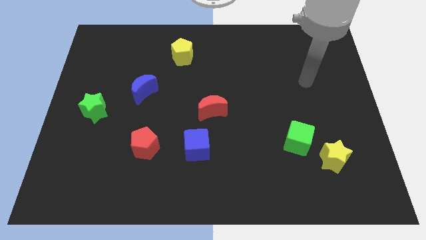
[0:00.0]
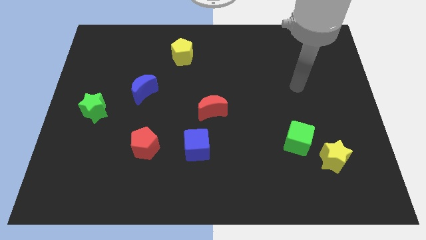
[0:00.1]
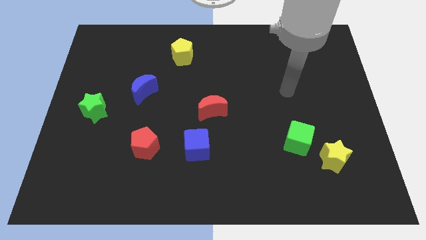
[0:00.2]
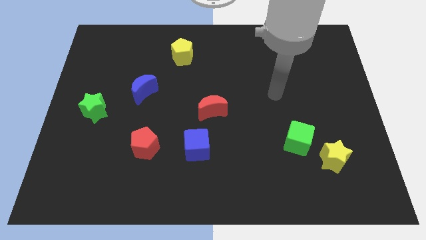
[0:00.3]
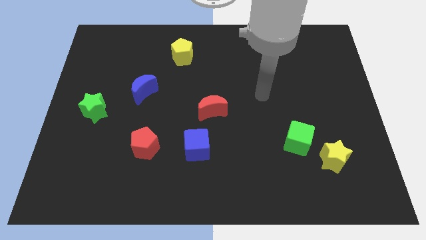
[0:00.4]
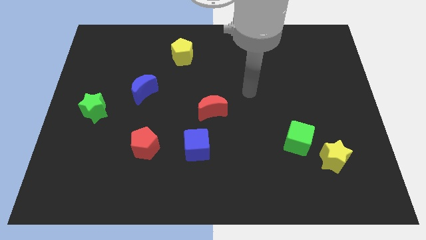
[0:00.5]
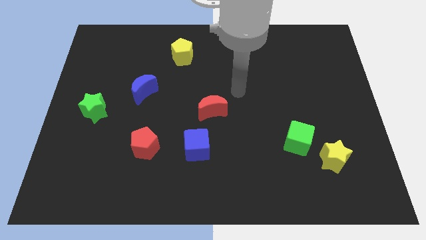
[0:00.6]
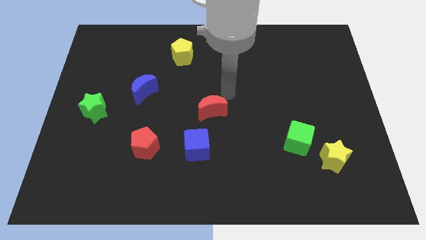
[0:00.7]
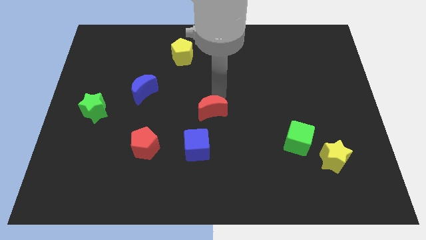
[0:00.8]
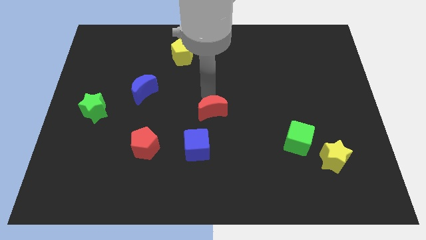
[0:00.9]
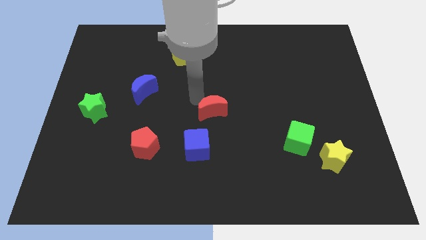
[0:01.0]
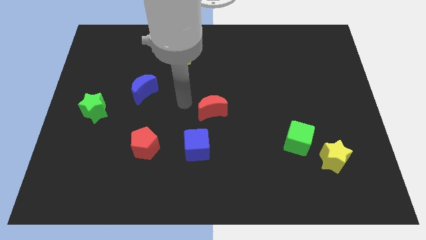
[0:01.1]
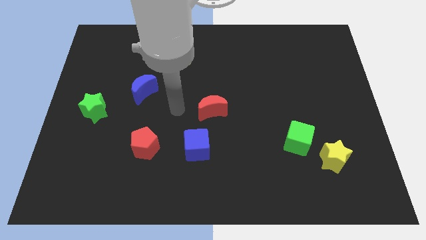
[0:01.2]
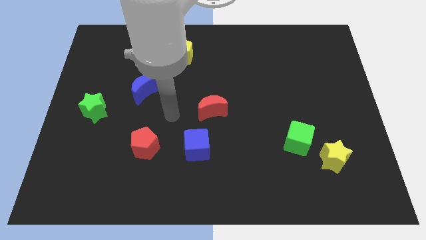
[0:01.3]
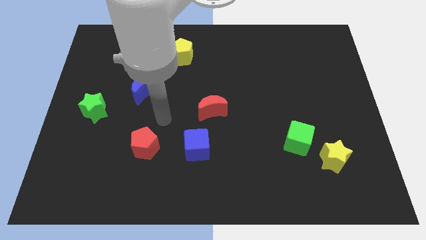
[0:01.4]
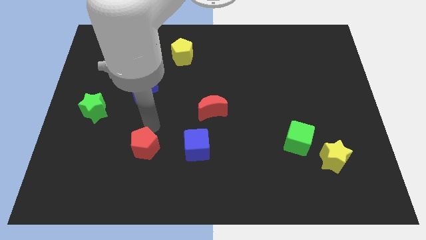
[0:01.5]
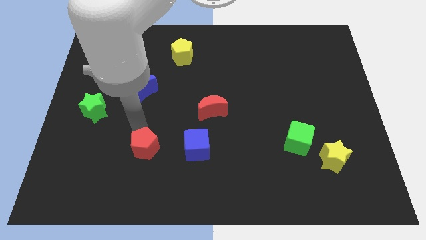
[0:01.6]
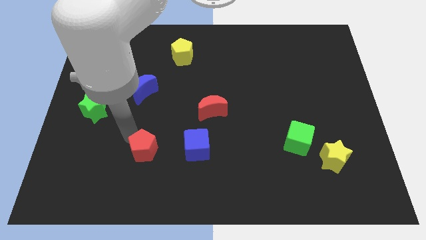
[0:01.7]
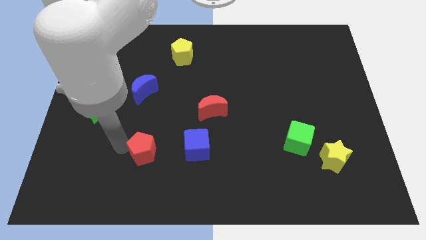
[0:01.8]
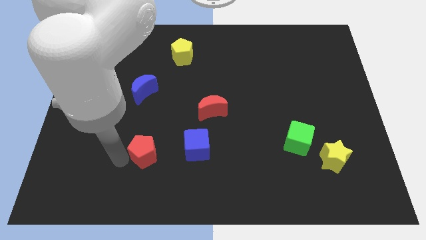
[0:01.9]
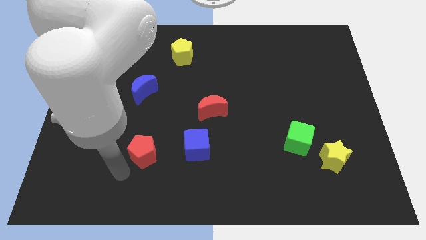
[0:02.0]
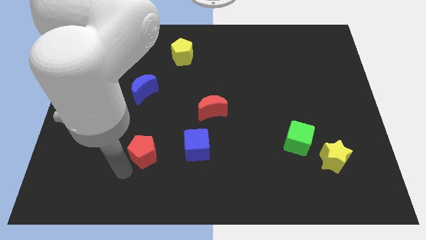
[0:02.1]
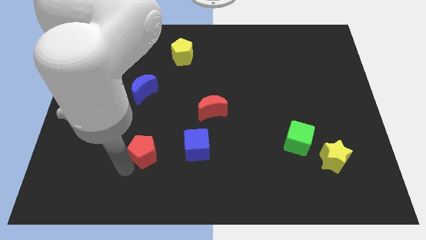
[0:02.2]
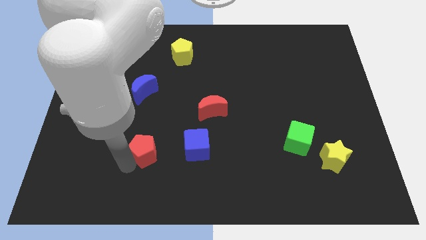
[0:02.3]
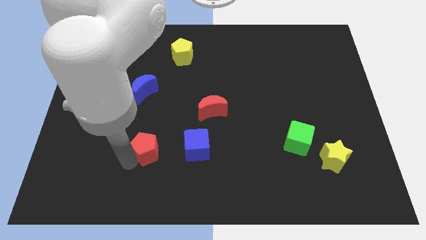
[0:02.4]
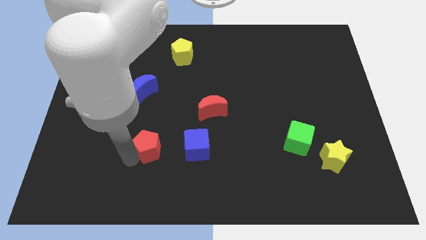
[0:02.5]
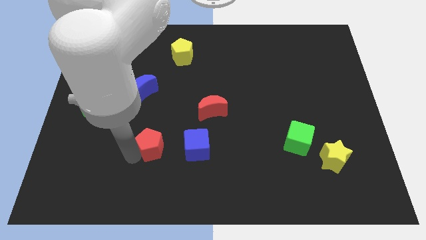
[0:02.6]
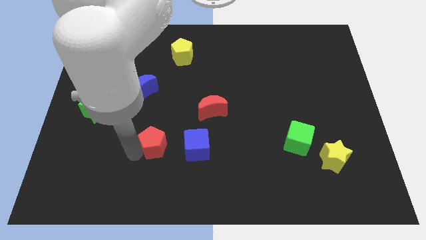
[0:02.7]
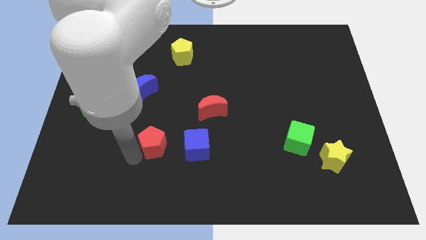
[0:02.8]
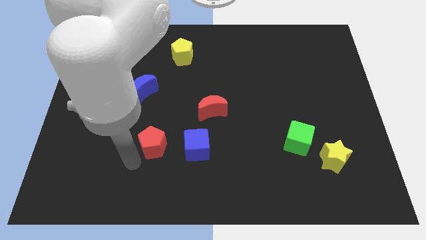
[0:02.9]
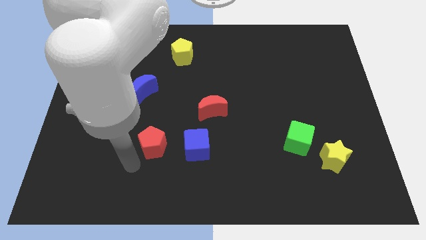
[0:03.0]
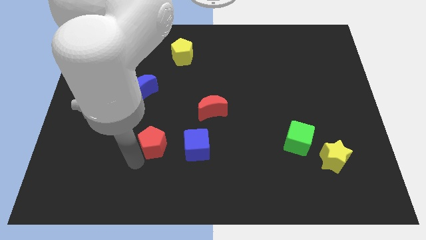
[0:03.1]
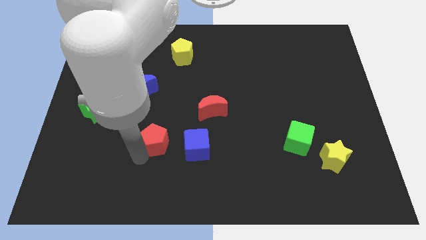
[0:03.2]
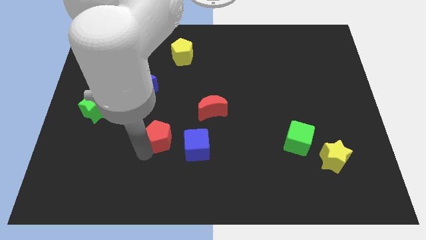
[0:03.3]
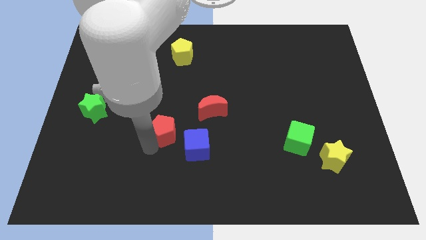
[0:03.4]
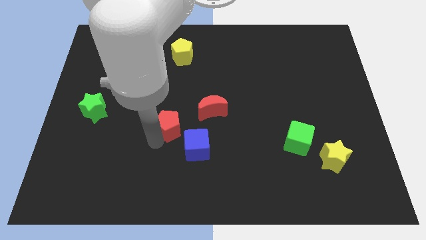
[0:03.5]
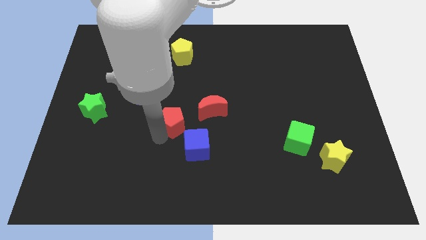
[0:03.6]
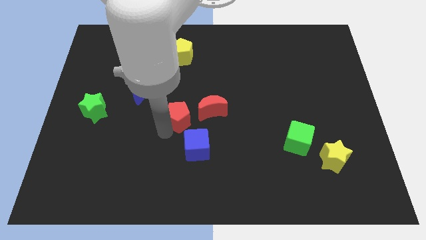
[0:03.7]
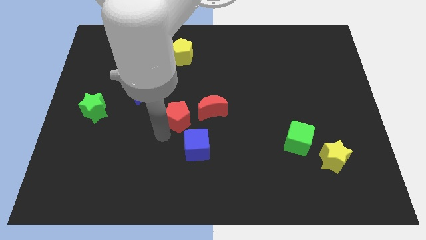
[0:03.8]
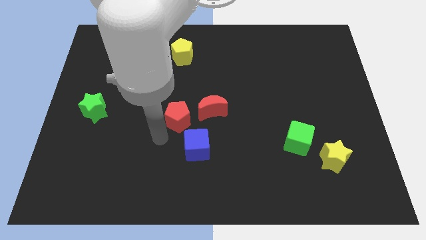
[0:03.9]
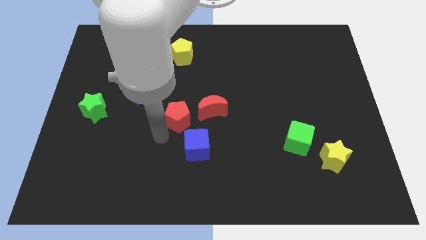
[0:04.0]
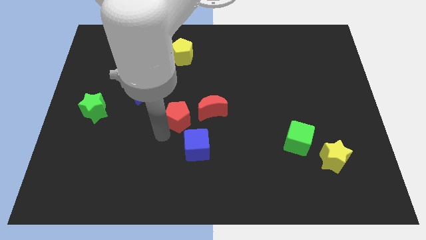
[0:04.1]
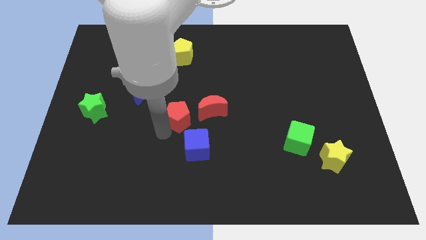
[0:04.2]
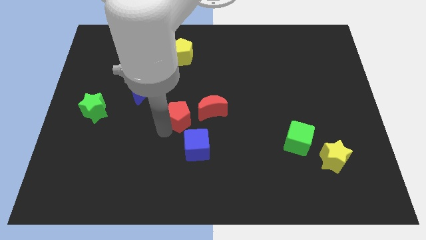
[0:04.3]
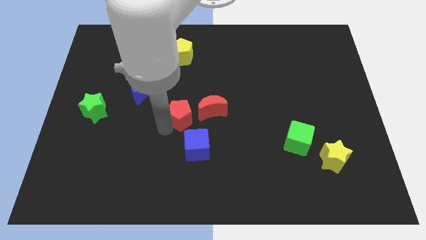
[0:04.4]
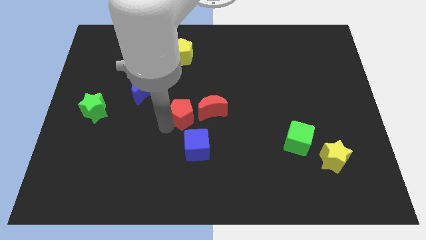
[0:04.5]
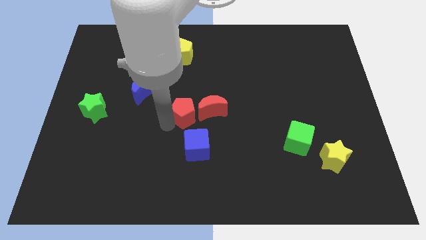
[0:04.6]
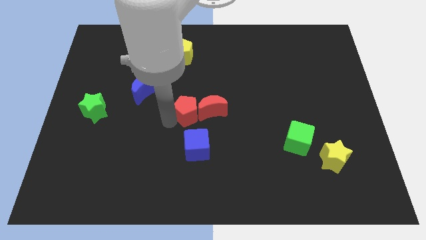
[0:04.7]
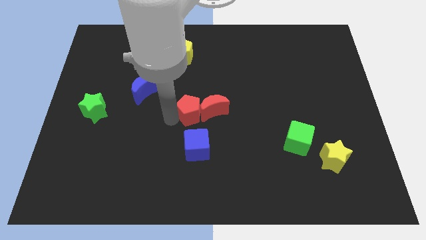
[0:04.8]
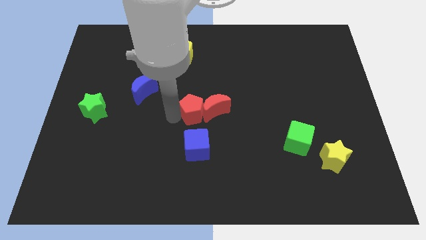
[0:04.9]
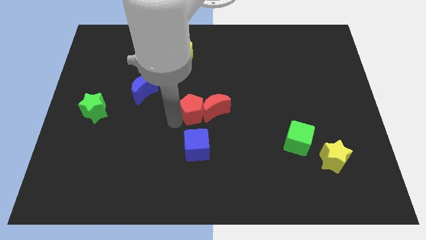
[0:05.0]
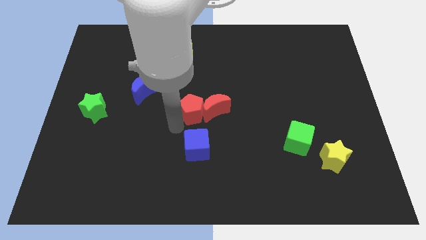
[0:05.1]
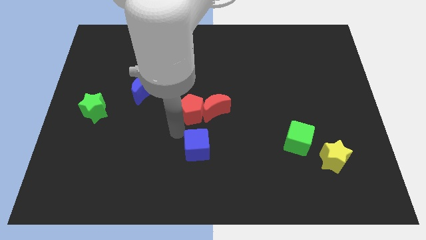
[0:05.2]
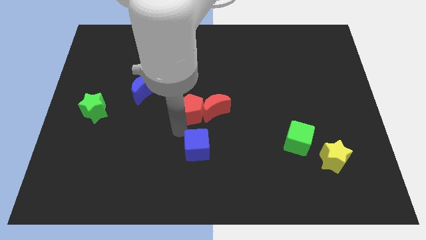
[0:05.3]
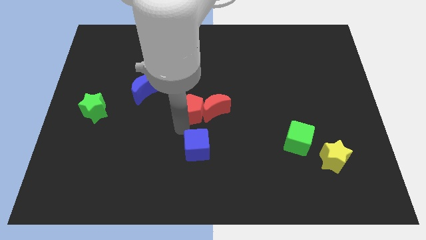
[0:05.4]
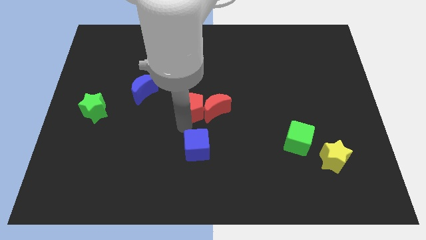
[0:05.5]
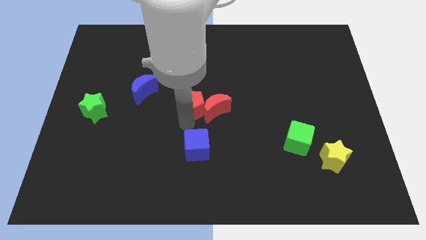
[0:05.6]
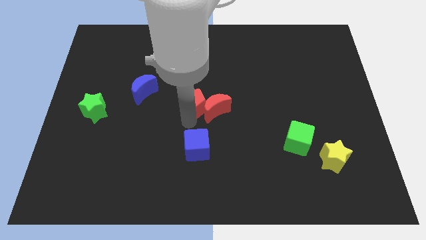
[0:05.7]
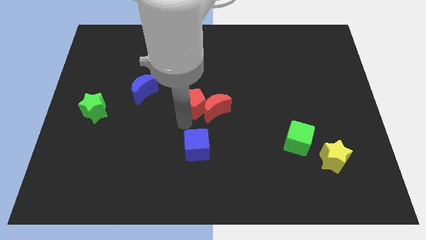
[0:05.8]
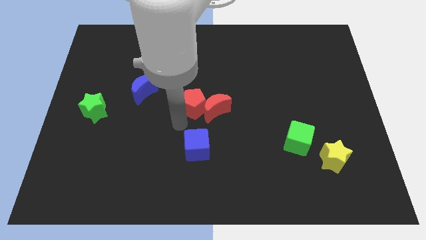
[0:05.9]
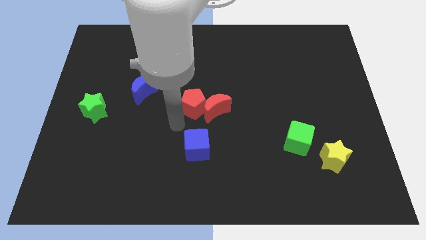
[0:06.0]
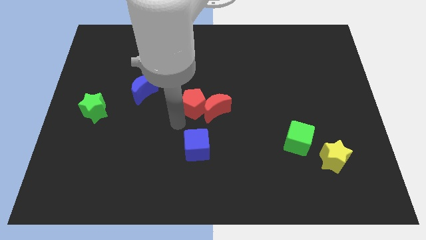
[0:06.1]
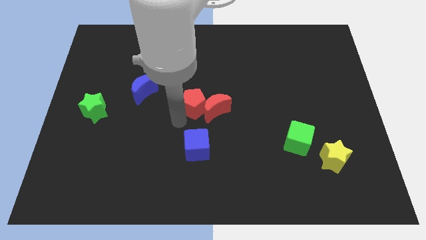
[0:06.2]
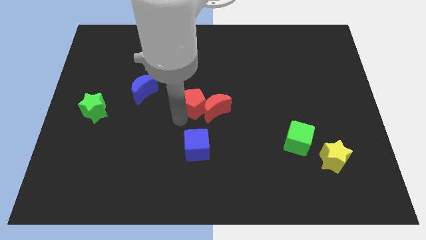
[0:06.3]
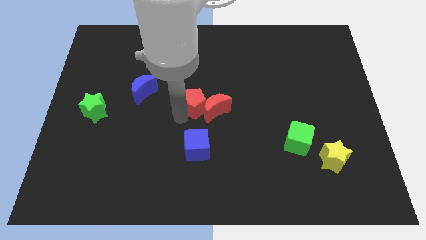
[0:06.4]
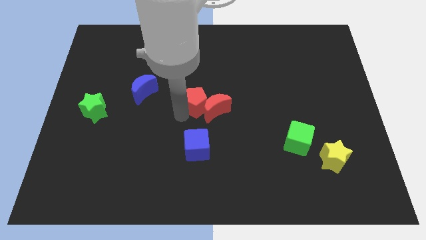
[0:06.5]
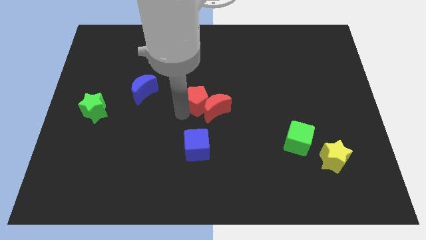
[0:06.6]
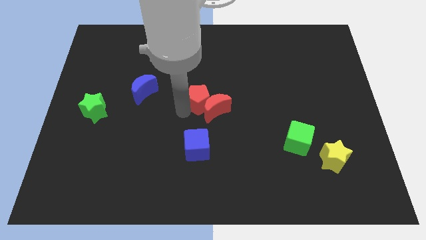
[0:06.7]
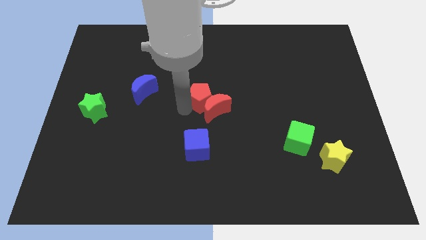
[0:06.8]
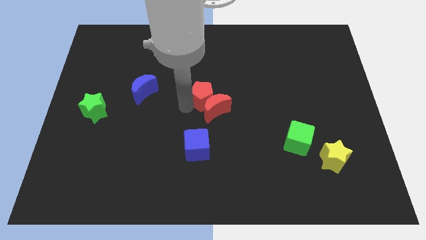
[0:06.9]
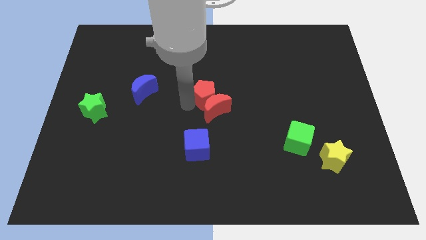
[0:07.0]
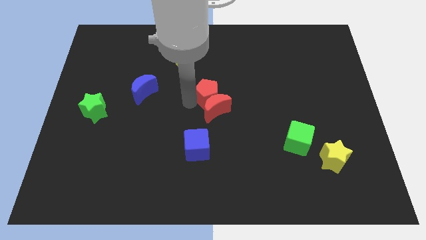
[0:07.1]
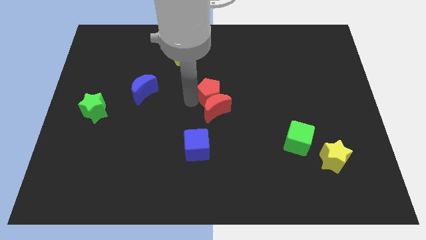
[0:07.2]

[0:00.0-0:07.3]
slide the red pentagon upwards and to the right

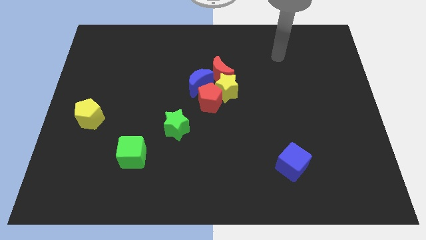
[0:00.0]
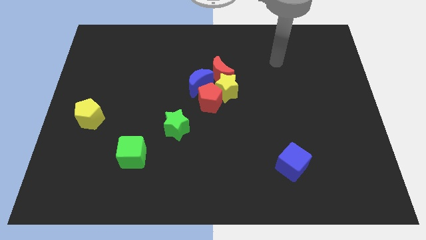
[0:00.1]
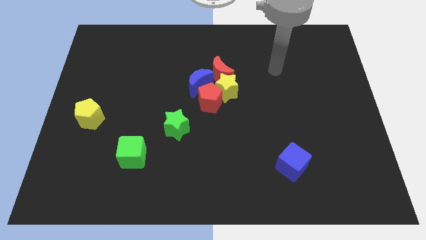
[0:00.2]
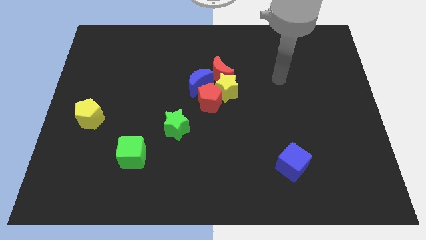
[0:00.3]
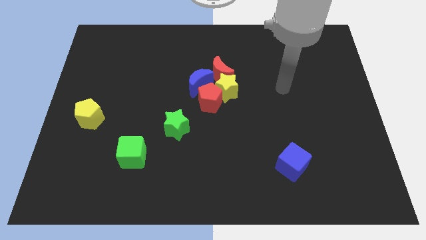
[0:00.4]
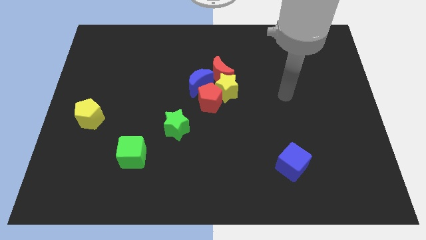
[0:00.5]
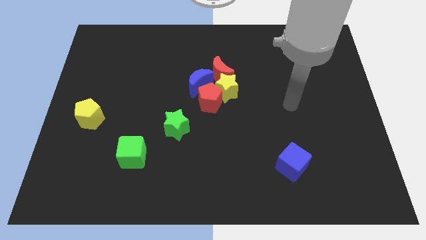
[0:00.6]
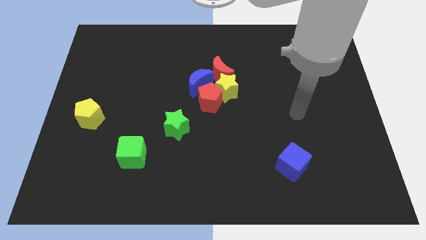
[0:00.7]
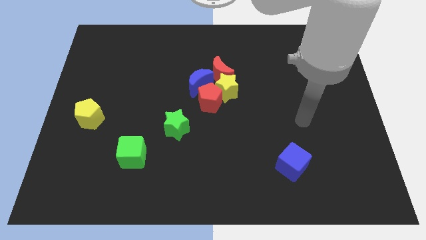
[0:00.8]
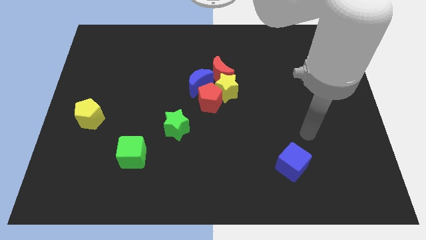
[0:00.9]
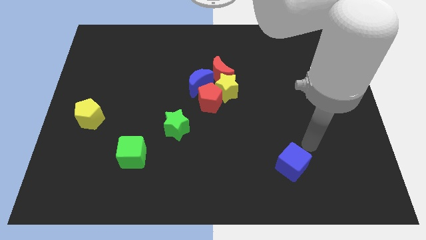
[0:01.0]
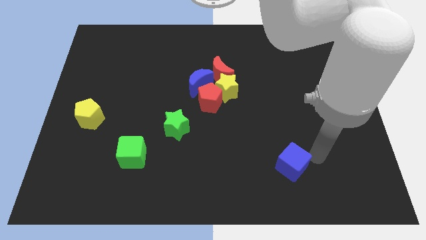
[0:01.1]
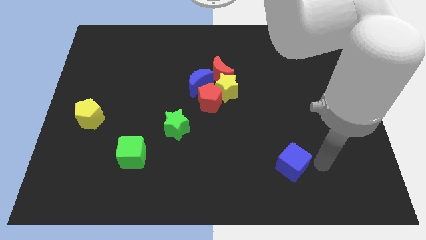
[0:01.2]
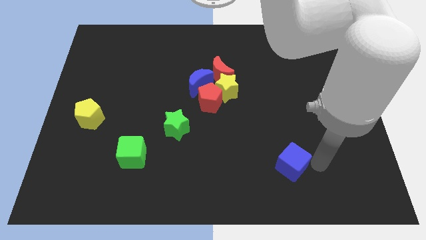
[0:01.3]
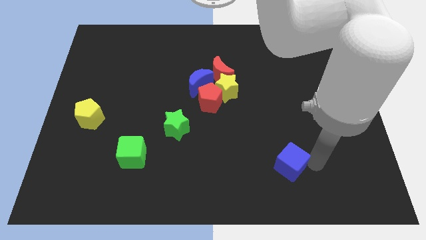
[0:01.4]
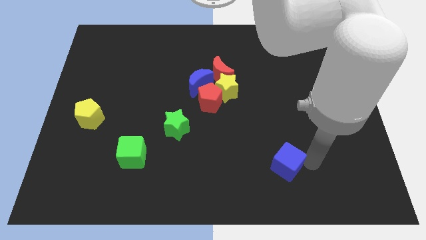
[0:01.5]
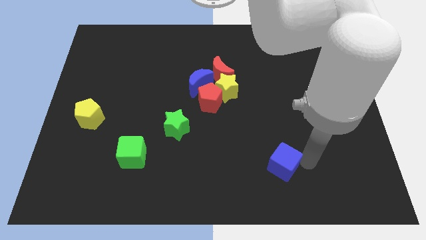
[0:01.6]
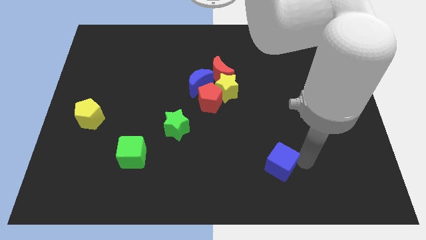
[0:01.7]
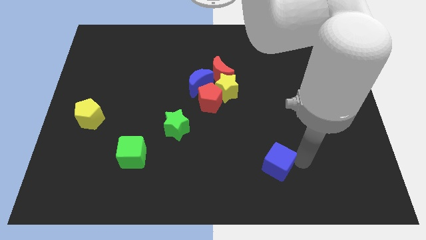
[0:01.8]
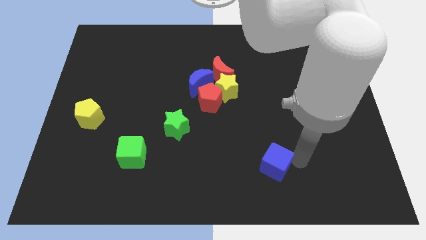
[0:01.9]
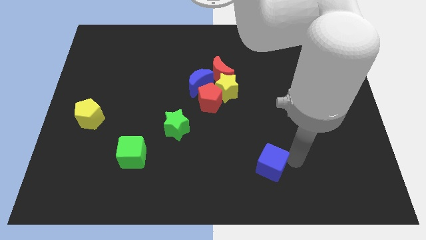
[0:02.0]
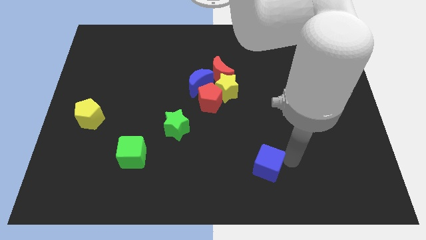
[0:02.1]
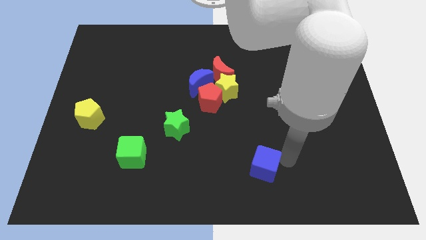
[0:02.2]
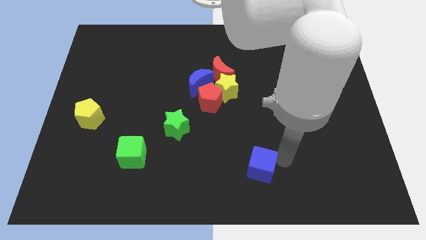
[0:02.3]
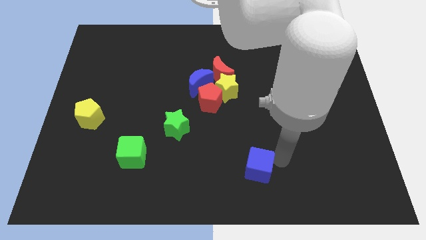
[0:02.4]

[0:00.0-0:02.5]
push the blue cube a little bit left
